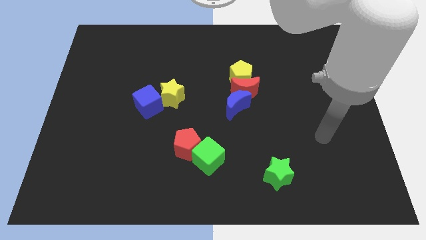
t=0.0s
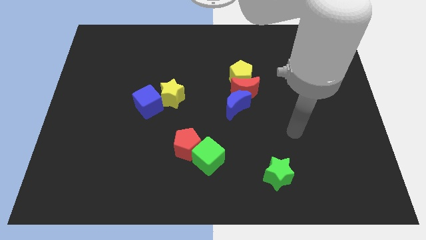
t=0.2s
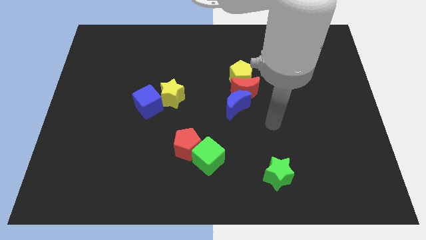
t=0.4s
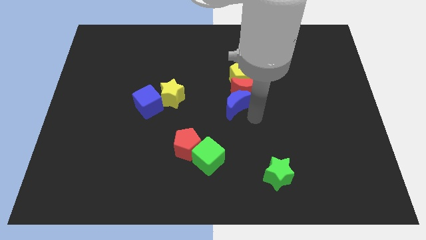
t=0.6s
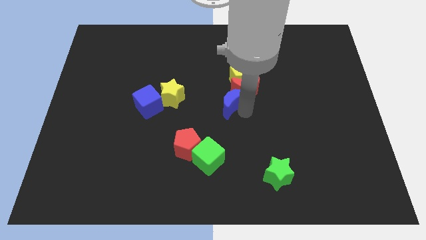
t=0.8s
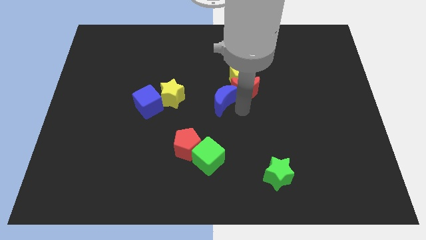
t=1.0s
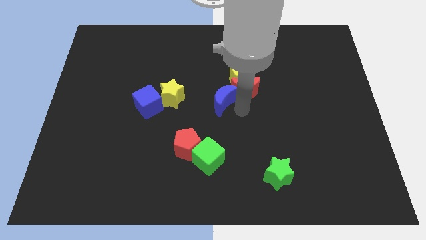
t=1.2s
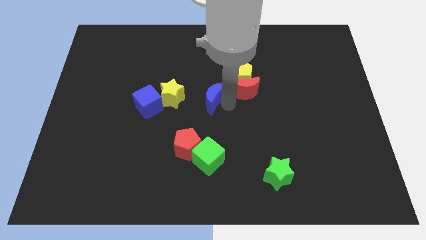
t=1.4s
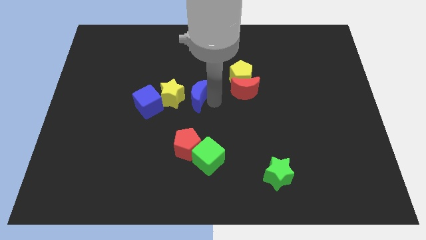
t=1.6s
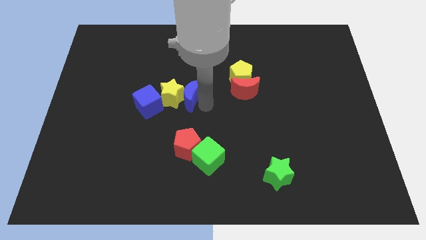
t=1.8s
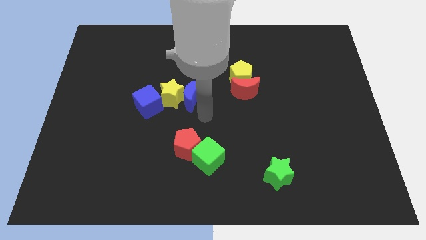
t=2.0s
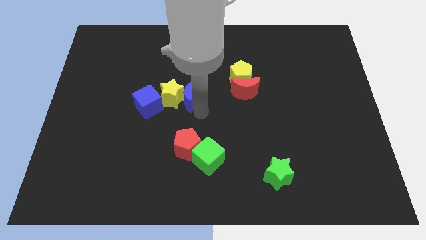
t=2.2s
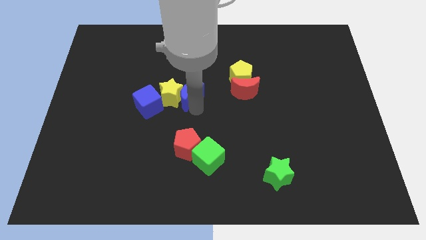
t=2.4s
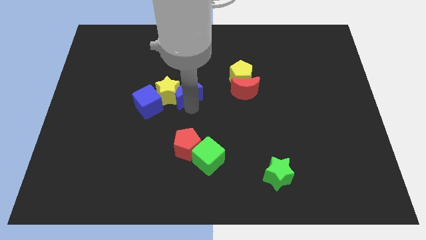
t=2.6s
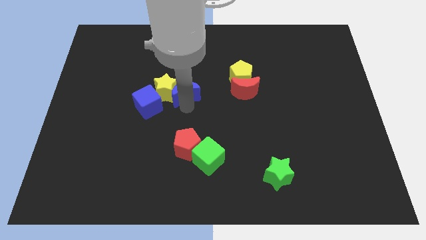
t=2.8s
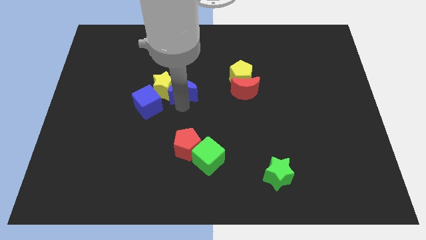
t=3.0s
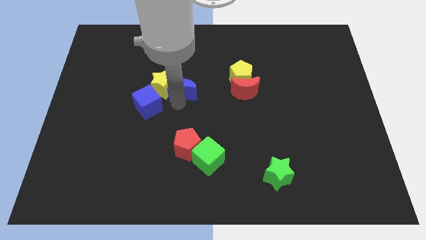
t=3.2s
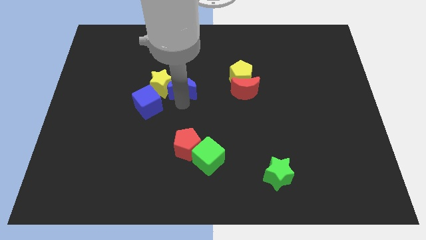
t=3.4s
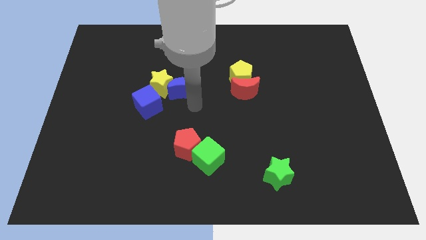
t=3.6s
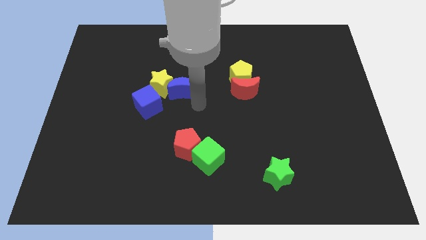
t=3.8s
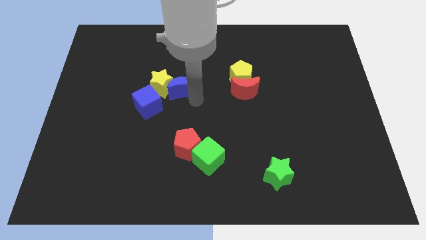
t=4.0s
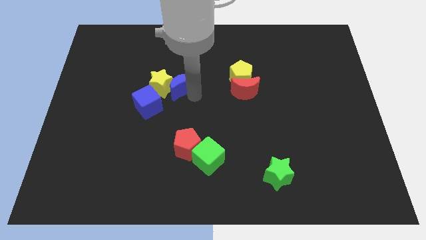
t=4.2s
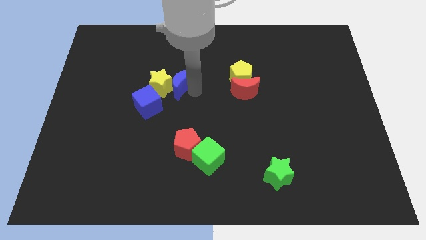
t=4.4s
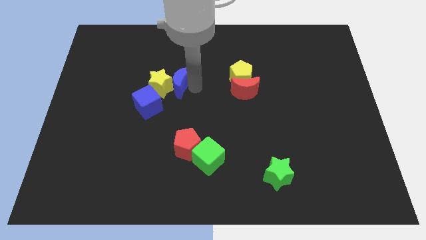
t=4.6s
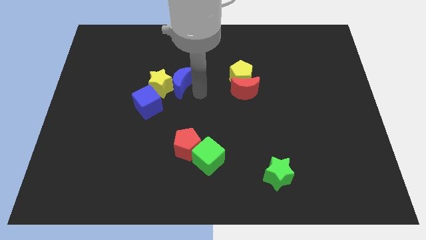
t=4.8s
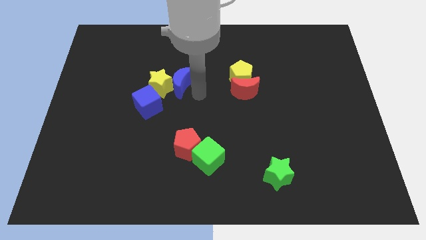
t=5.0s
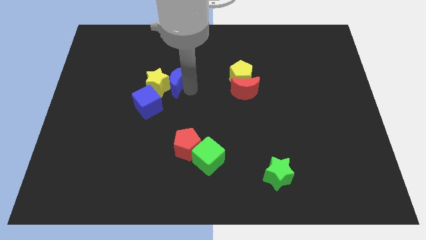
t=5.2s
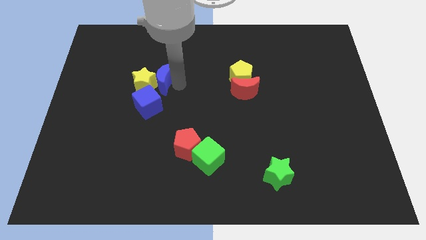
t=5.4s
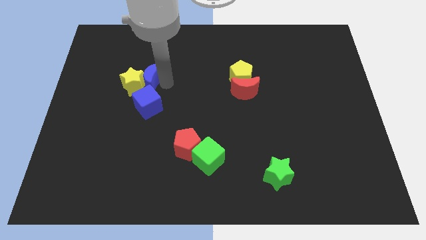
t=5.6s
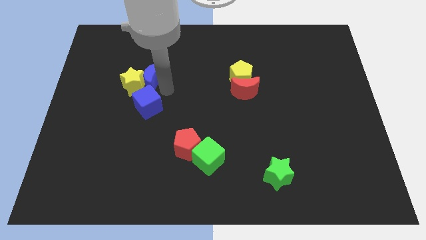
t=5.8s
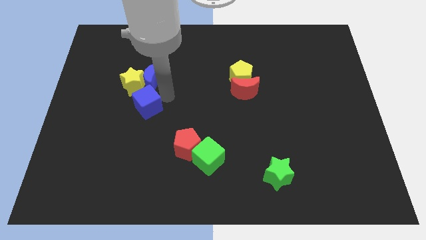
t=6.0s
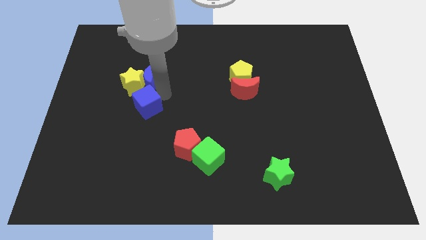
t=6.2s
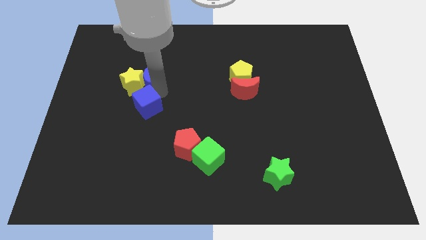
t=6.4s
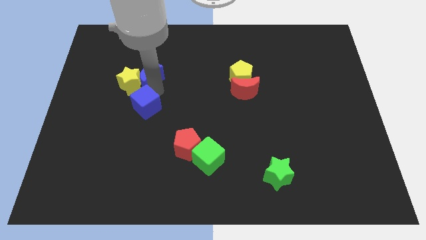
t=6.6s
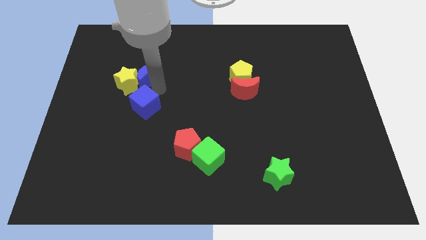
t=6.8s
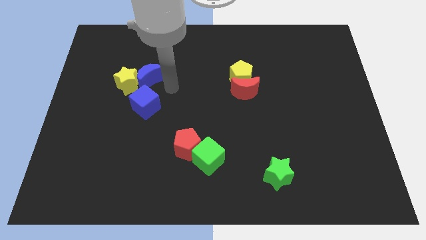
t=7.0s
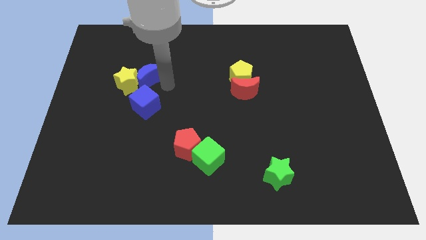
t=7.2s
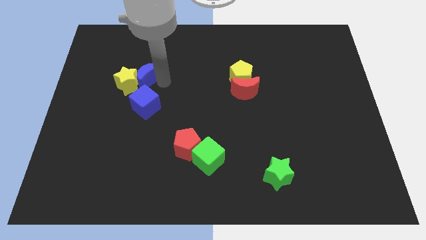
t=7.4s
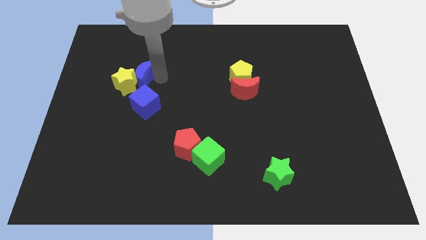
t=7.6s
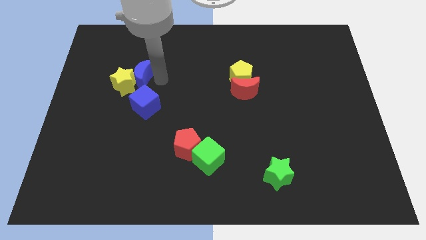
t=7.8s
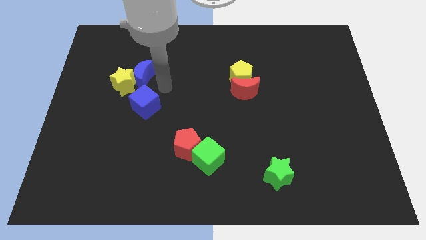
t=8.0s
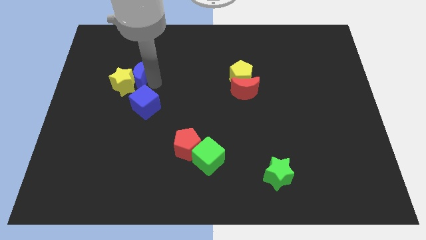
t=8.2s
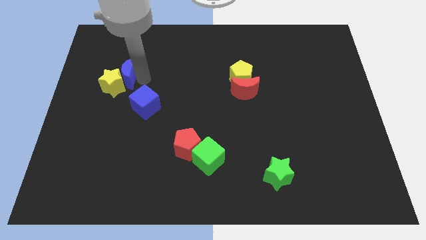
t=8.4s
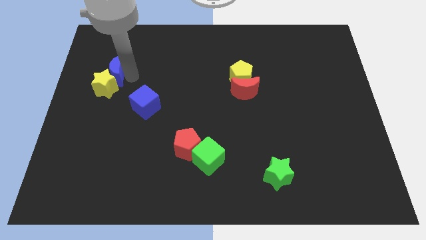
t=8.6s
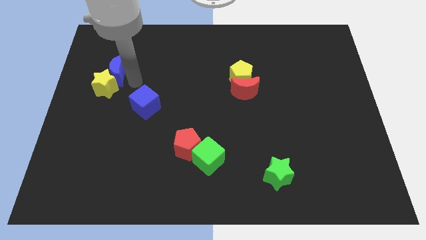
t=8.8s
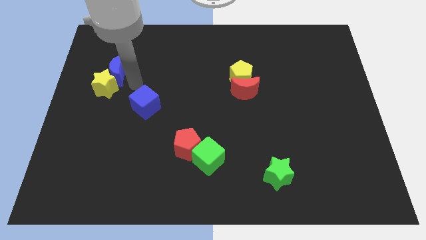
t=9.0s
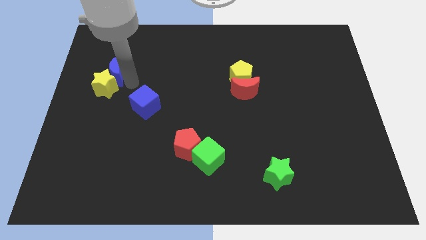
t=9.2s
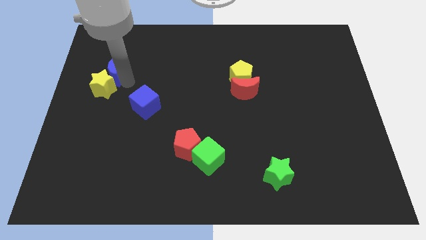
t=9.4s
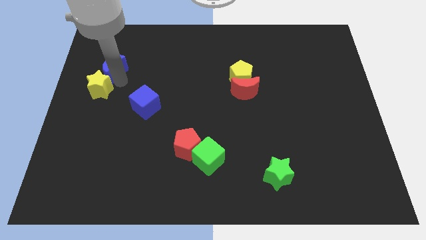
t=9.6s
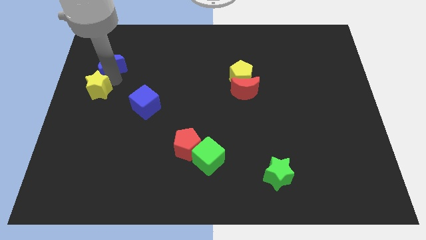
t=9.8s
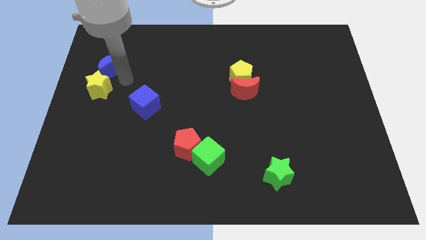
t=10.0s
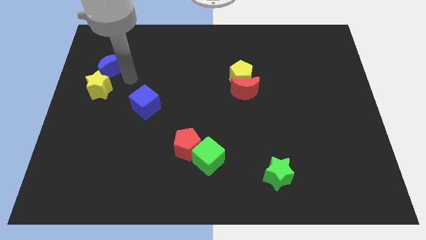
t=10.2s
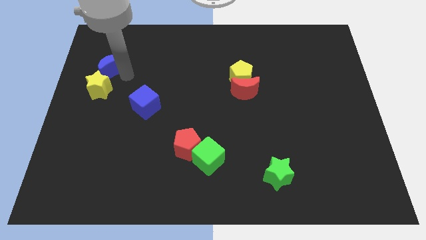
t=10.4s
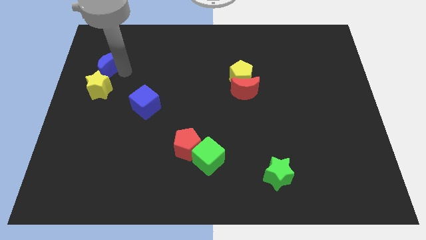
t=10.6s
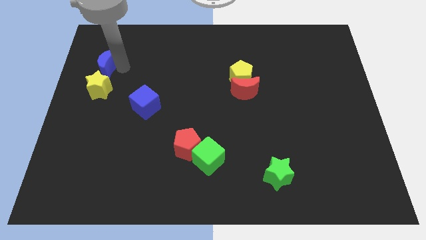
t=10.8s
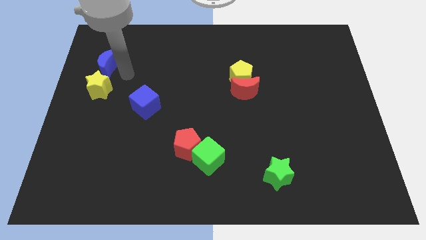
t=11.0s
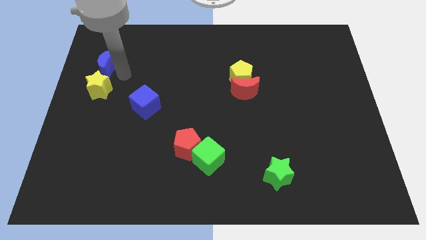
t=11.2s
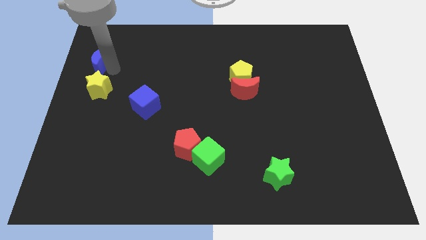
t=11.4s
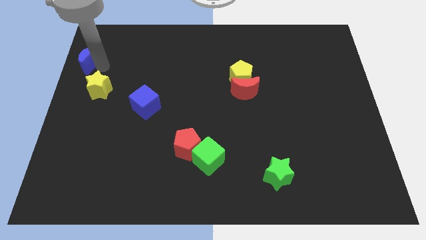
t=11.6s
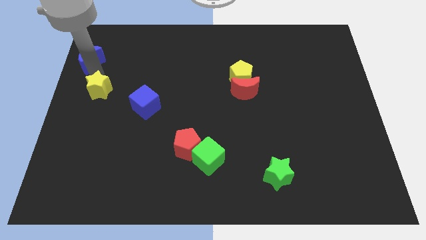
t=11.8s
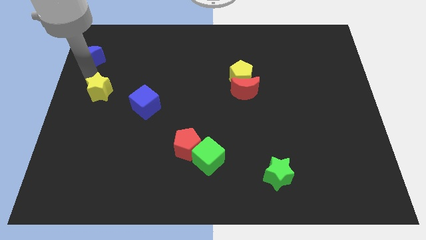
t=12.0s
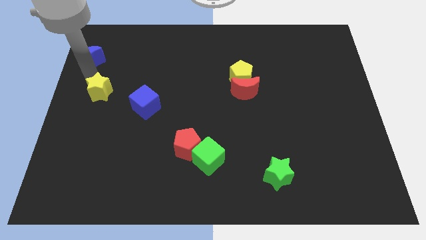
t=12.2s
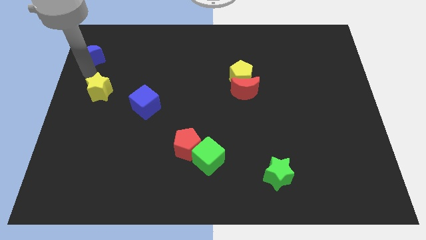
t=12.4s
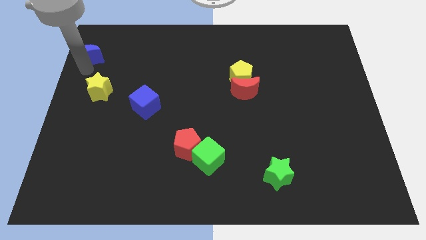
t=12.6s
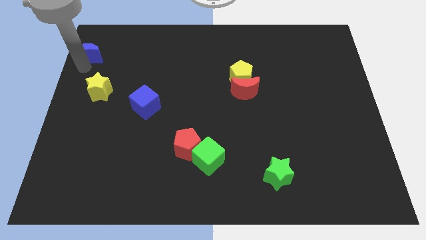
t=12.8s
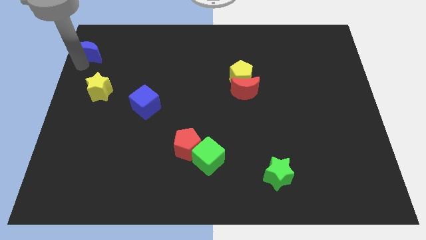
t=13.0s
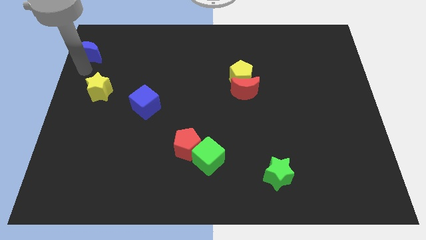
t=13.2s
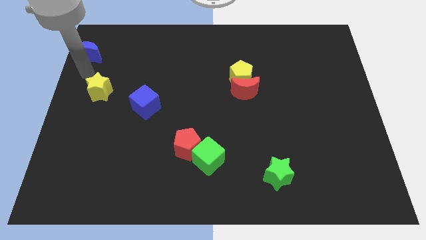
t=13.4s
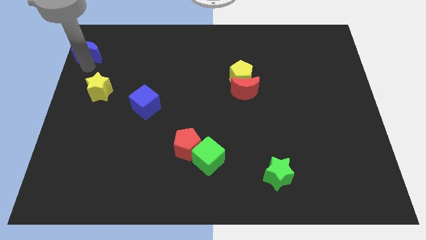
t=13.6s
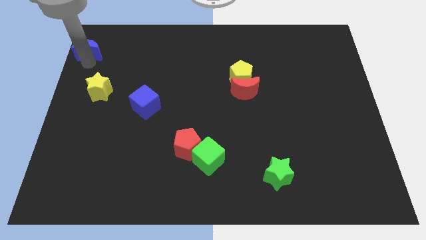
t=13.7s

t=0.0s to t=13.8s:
put the blue moon to the top left

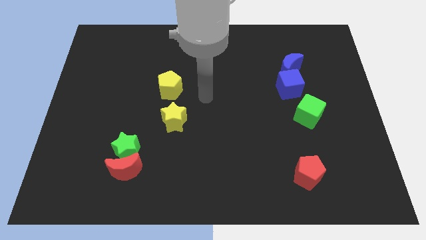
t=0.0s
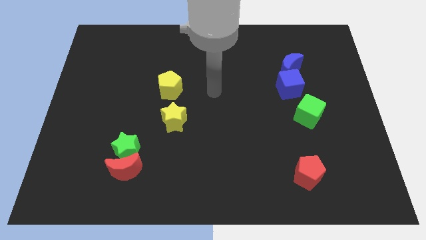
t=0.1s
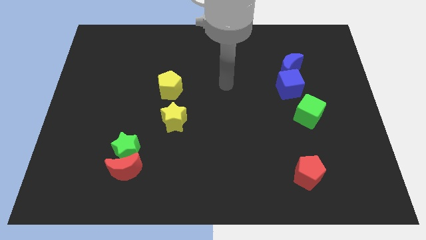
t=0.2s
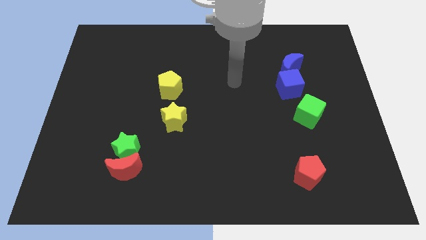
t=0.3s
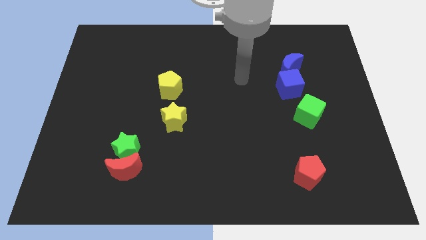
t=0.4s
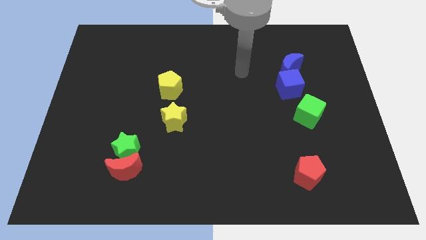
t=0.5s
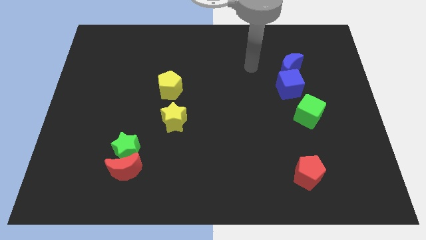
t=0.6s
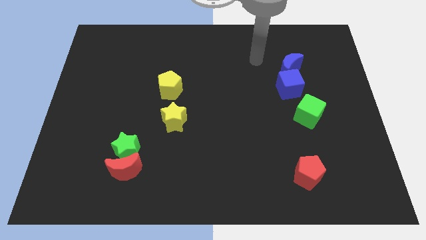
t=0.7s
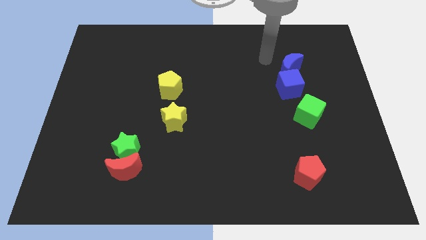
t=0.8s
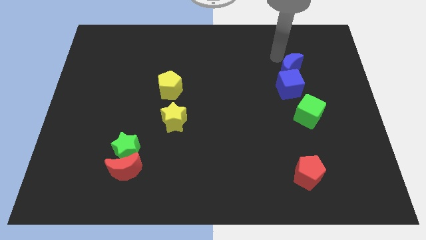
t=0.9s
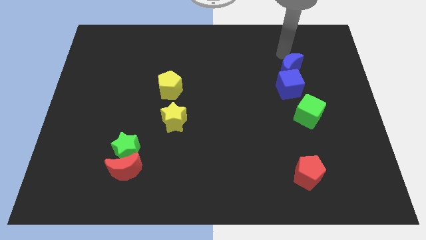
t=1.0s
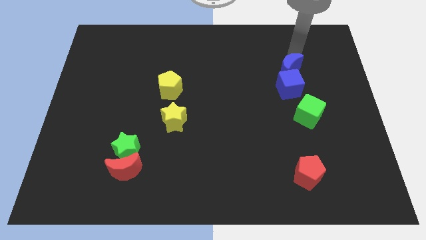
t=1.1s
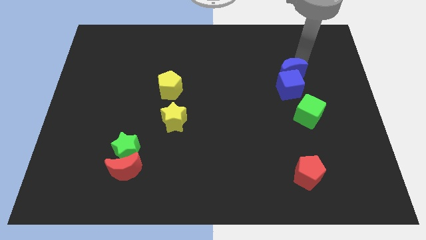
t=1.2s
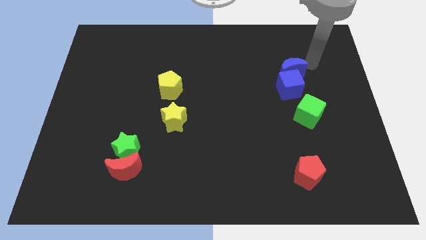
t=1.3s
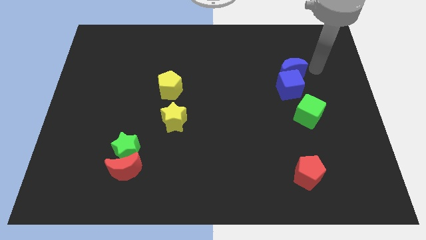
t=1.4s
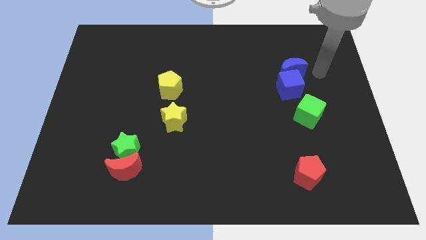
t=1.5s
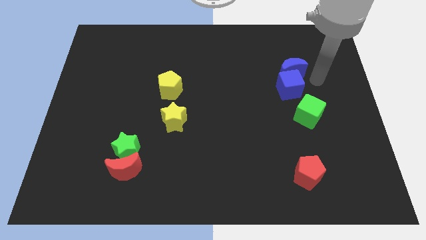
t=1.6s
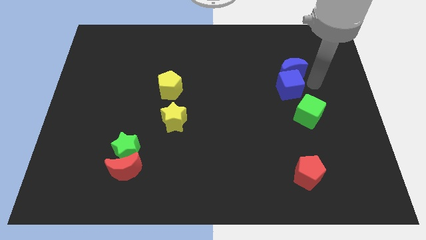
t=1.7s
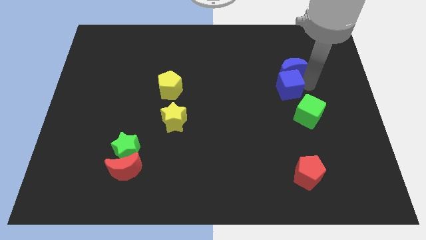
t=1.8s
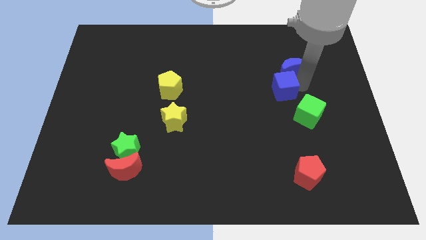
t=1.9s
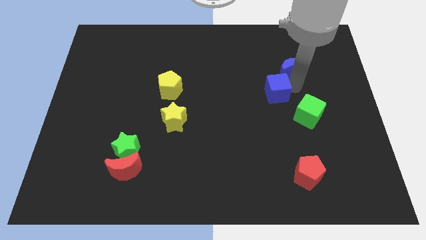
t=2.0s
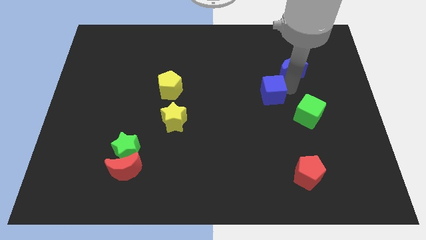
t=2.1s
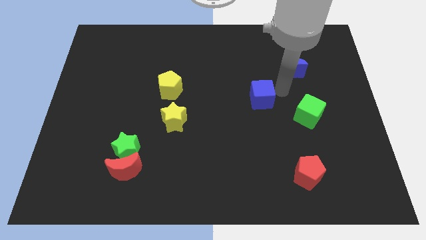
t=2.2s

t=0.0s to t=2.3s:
push the blue cube to the middle
